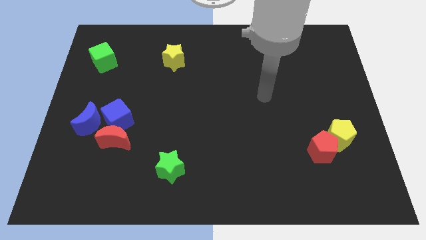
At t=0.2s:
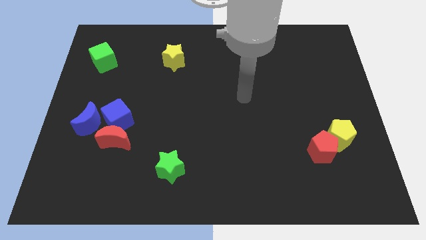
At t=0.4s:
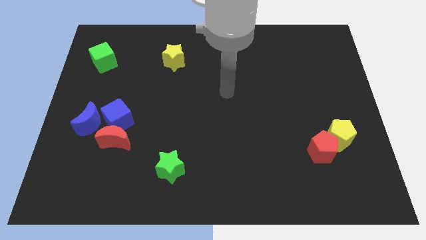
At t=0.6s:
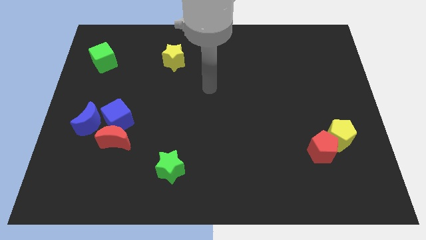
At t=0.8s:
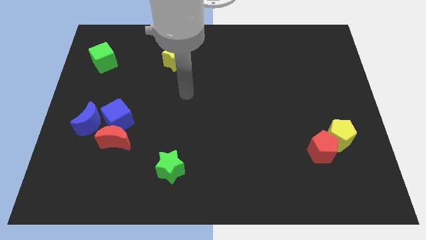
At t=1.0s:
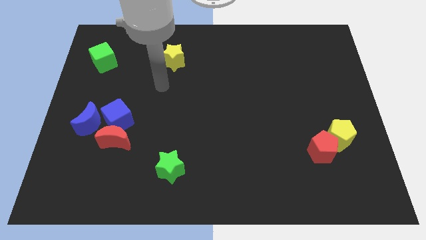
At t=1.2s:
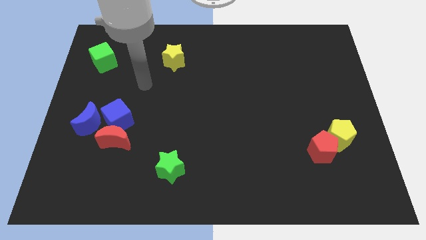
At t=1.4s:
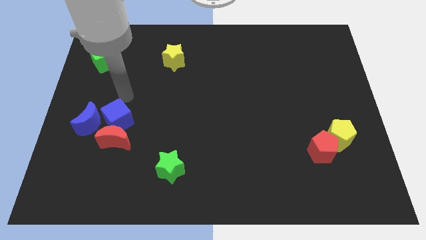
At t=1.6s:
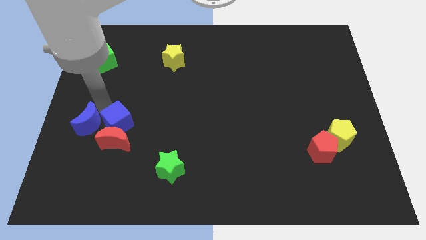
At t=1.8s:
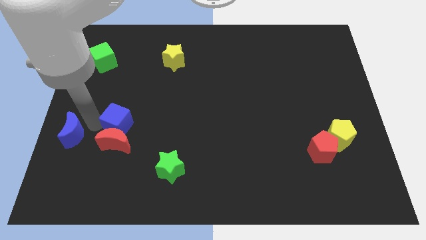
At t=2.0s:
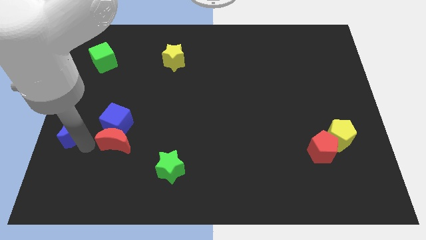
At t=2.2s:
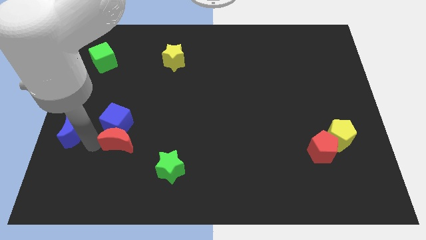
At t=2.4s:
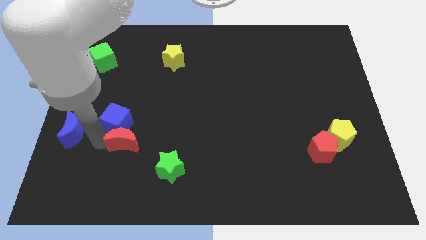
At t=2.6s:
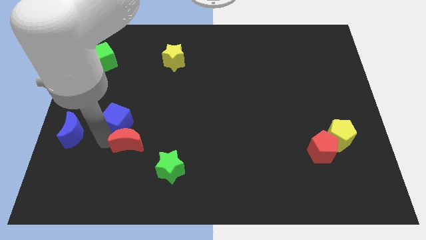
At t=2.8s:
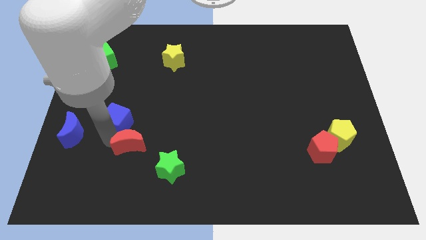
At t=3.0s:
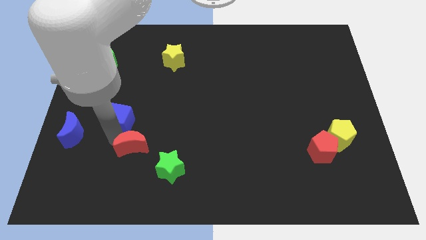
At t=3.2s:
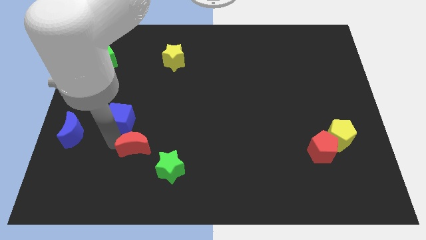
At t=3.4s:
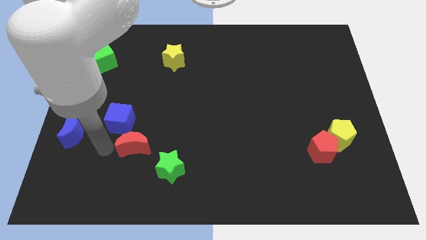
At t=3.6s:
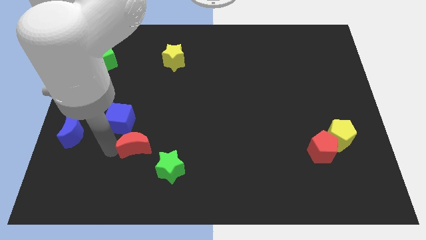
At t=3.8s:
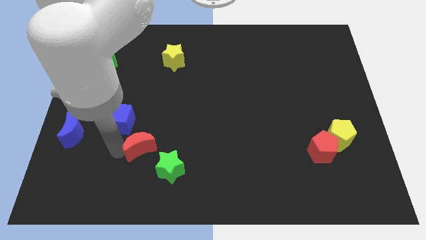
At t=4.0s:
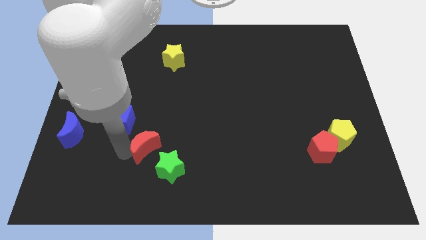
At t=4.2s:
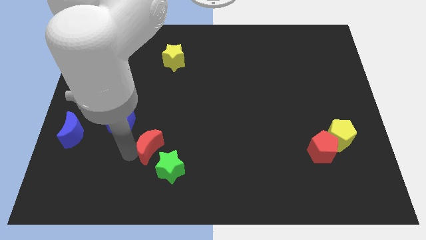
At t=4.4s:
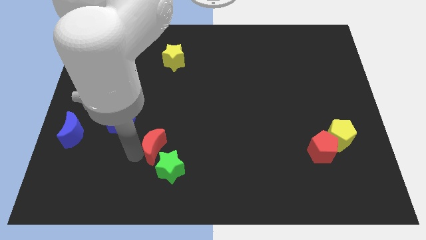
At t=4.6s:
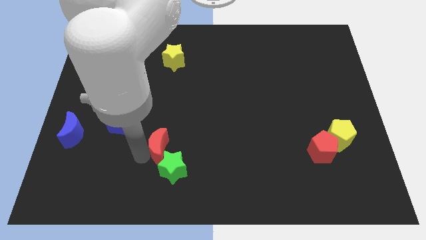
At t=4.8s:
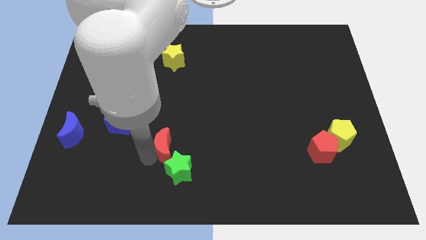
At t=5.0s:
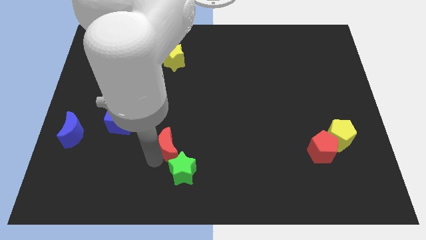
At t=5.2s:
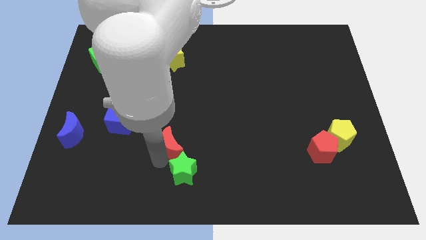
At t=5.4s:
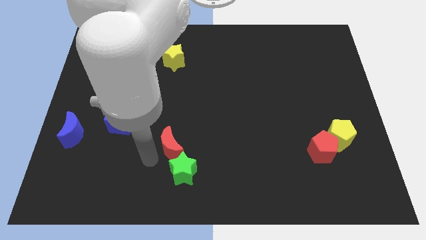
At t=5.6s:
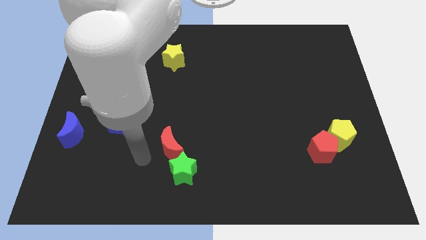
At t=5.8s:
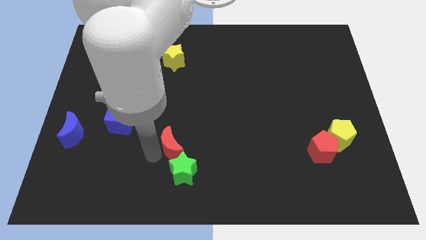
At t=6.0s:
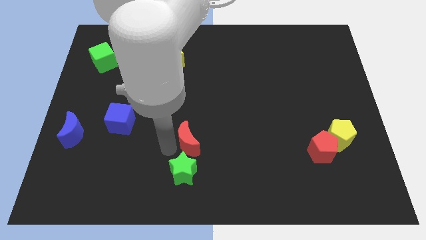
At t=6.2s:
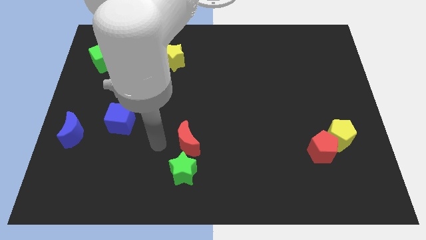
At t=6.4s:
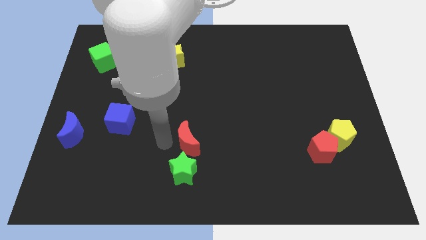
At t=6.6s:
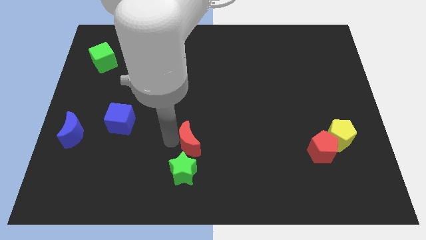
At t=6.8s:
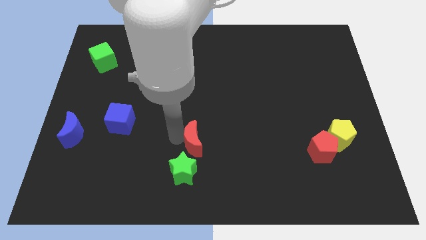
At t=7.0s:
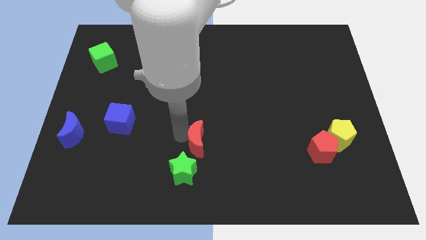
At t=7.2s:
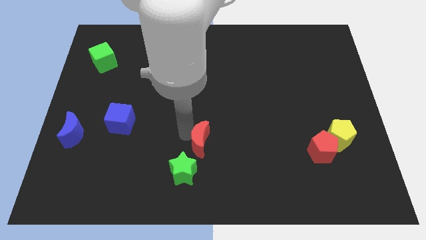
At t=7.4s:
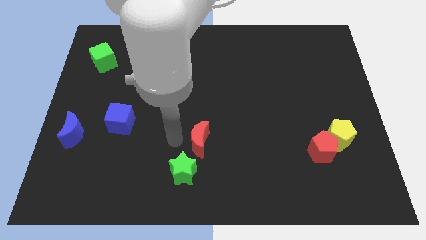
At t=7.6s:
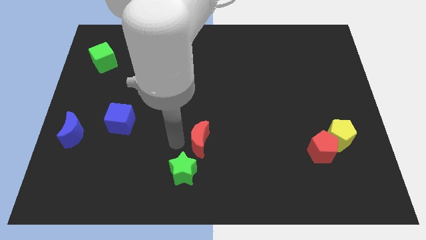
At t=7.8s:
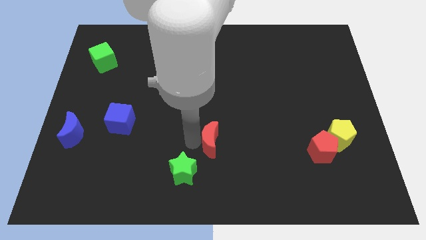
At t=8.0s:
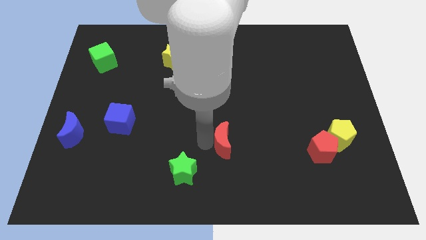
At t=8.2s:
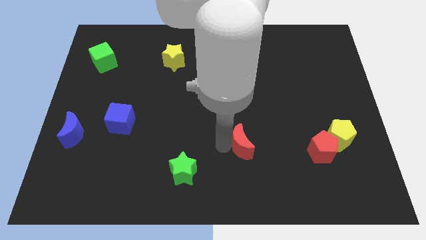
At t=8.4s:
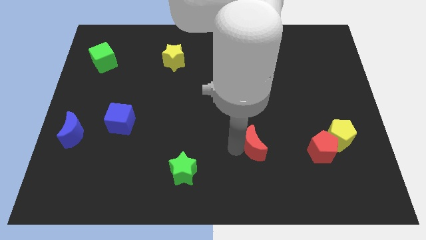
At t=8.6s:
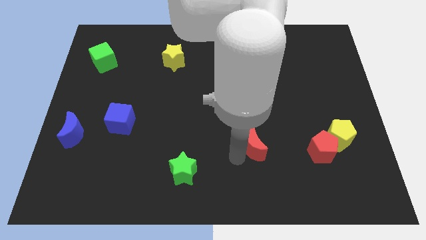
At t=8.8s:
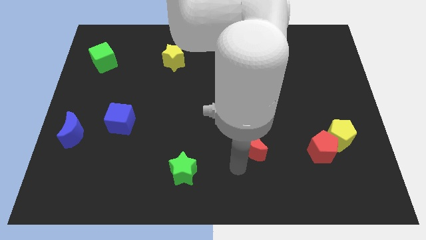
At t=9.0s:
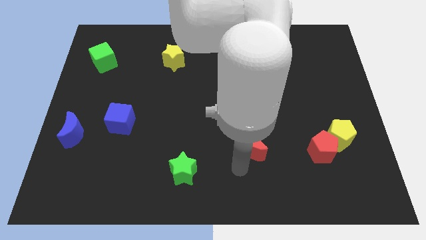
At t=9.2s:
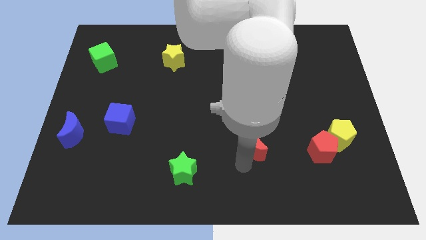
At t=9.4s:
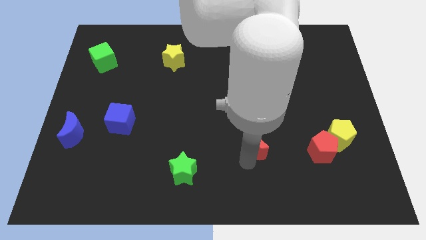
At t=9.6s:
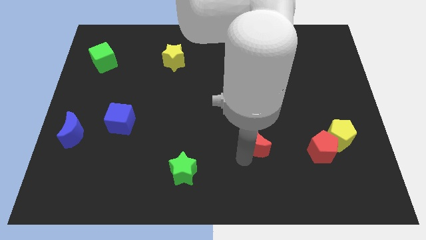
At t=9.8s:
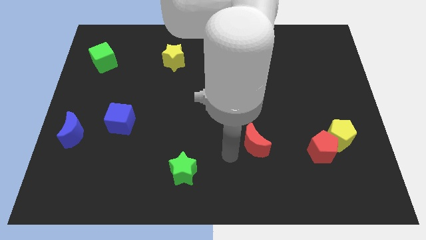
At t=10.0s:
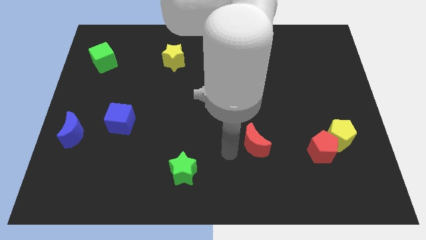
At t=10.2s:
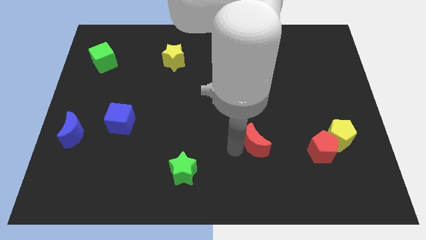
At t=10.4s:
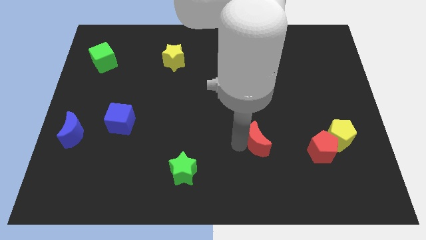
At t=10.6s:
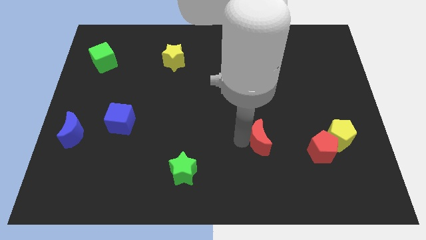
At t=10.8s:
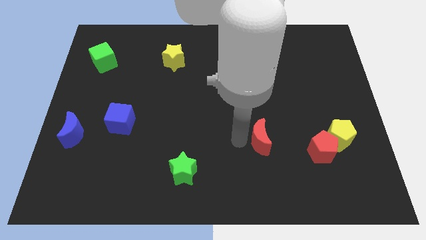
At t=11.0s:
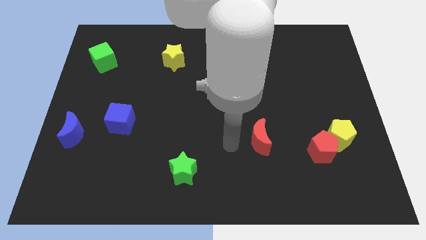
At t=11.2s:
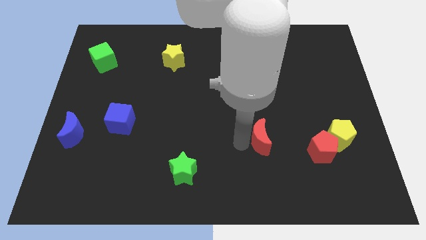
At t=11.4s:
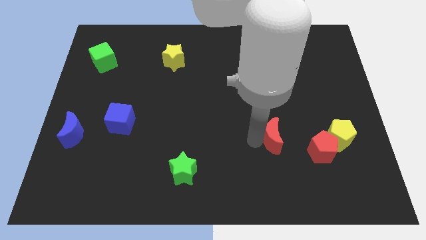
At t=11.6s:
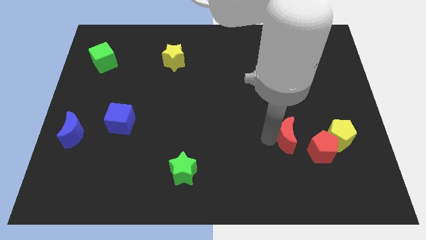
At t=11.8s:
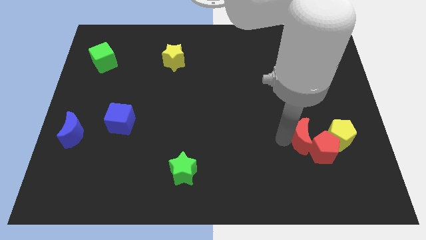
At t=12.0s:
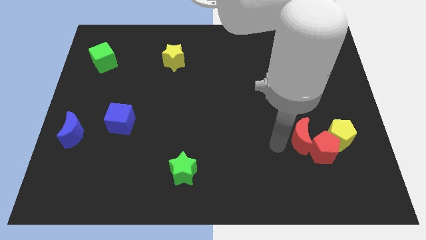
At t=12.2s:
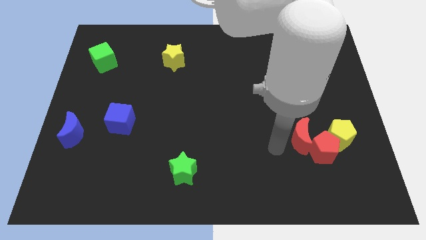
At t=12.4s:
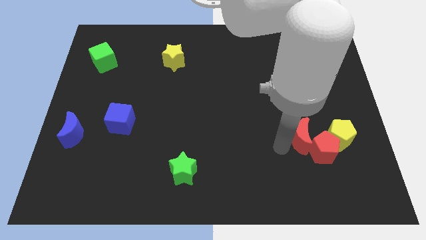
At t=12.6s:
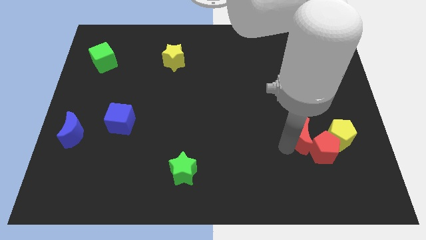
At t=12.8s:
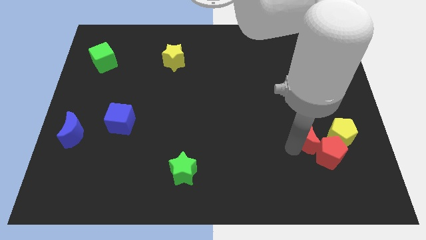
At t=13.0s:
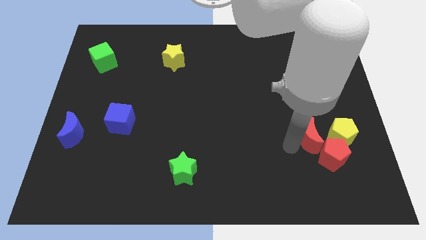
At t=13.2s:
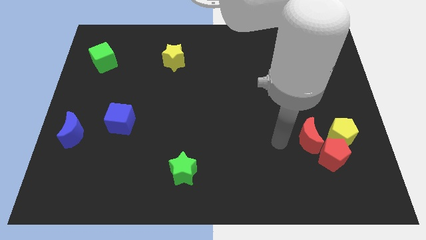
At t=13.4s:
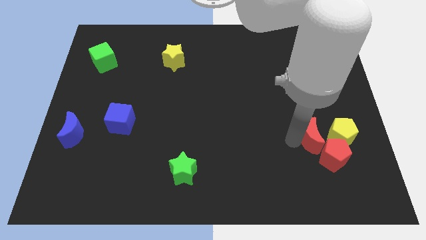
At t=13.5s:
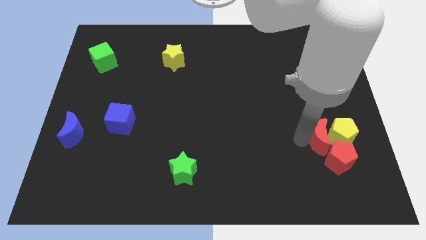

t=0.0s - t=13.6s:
push the red moon to the yellow pentagon

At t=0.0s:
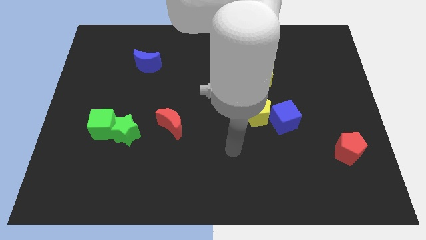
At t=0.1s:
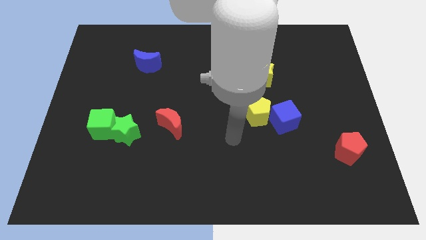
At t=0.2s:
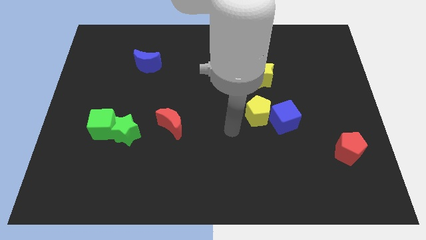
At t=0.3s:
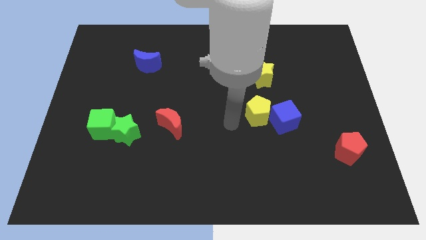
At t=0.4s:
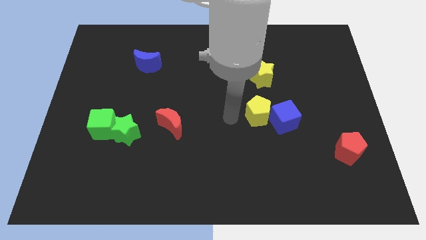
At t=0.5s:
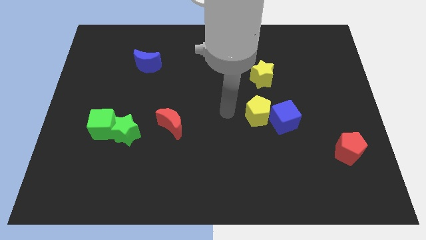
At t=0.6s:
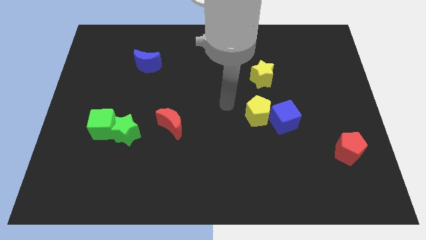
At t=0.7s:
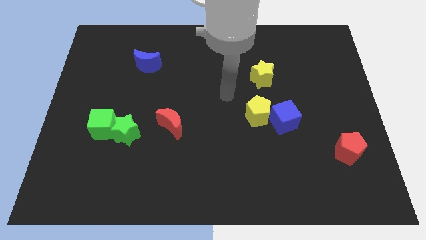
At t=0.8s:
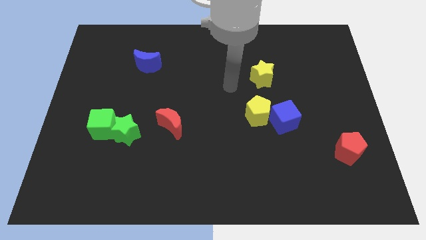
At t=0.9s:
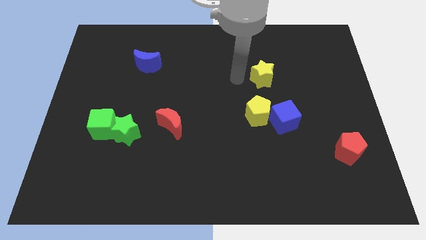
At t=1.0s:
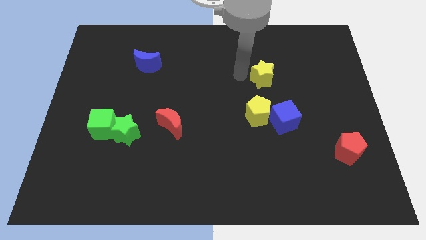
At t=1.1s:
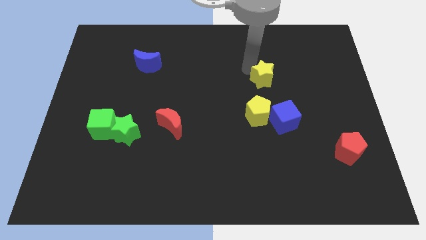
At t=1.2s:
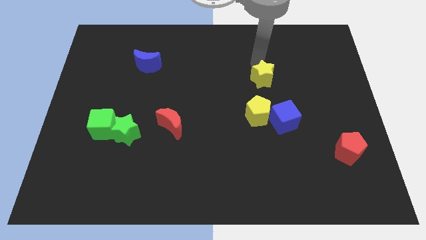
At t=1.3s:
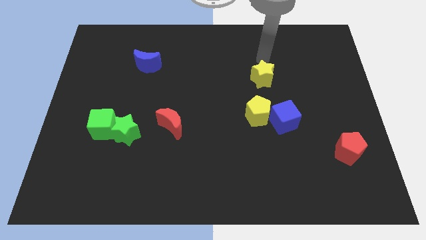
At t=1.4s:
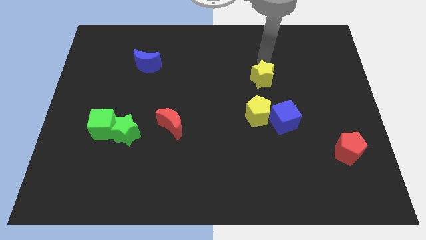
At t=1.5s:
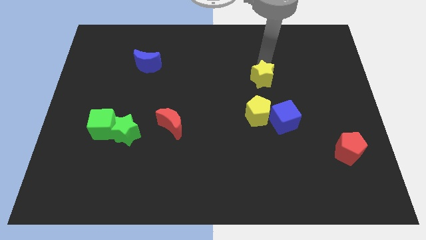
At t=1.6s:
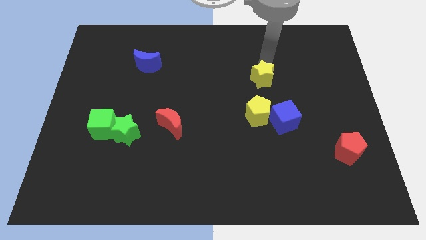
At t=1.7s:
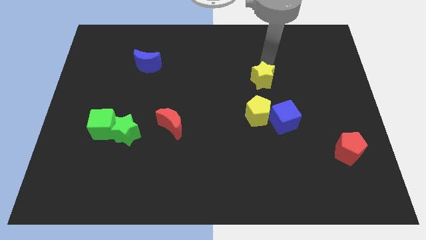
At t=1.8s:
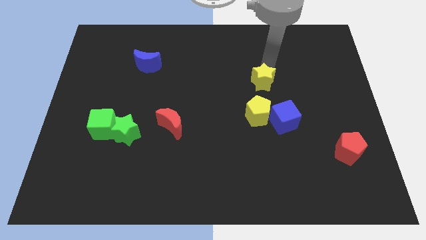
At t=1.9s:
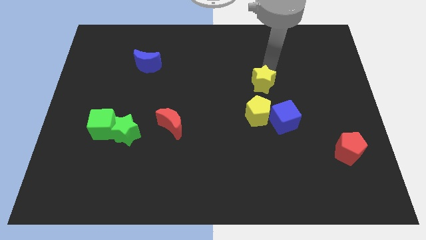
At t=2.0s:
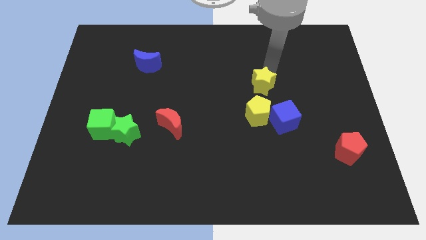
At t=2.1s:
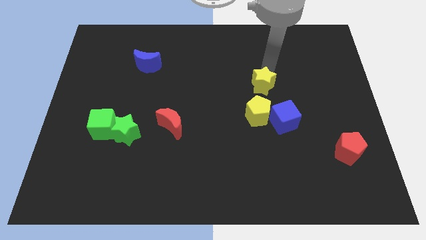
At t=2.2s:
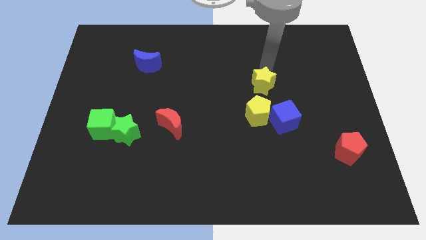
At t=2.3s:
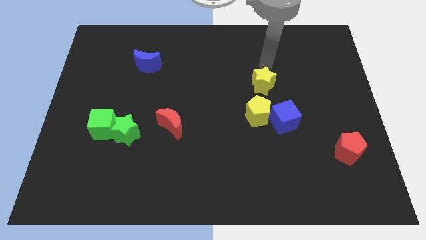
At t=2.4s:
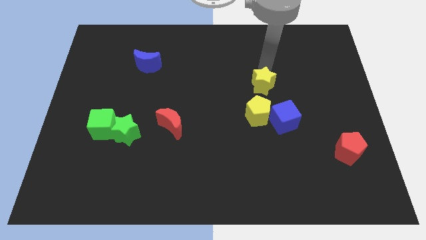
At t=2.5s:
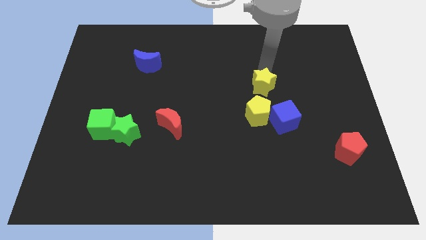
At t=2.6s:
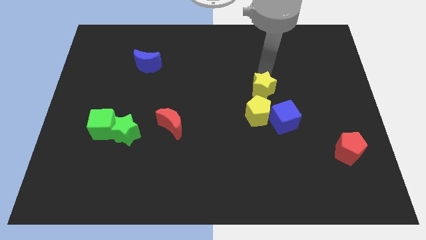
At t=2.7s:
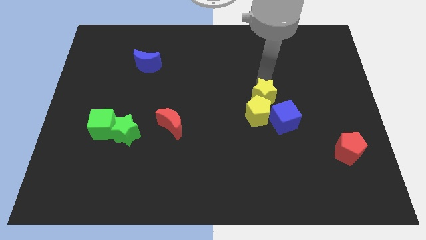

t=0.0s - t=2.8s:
put the yellow star next to the yellow pentagon
